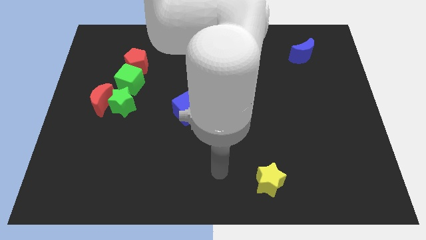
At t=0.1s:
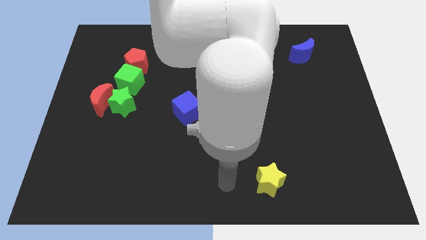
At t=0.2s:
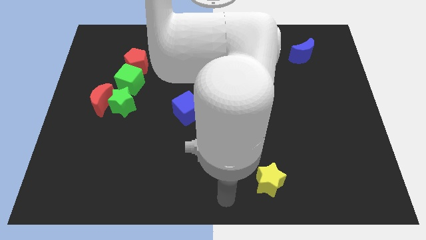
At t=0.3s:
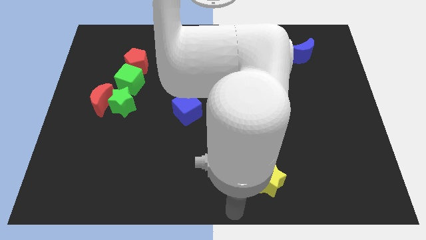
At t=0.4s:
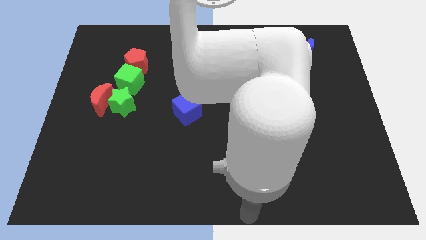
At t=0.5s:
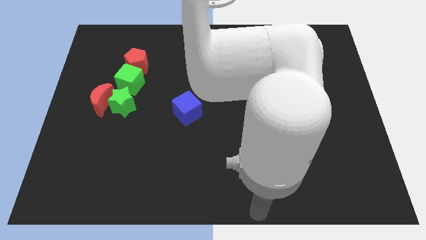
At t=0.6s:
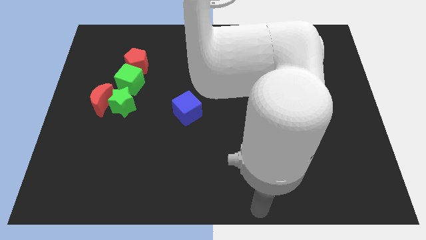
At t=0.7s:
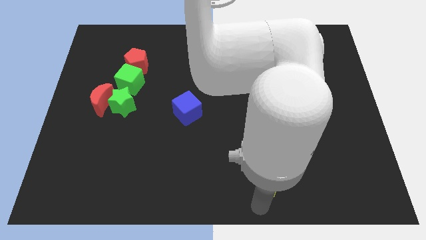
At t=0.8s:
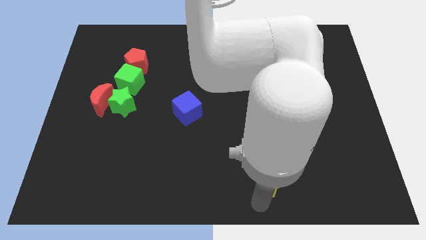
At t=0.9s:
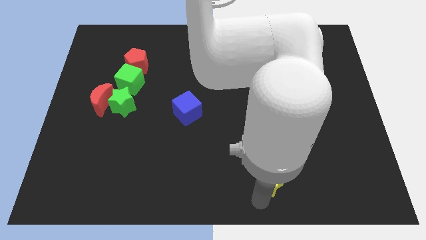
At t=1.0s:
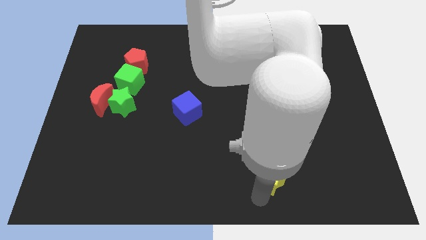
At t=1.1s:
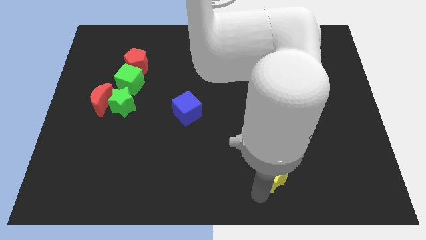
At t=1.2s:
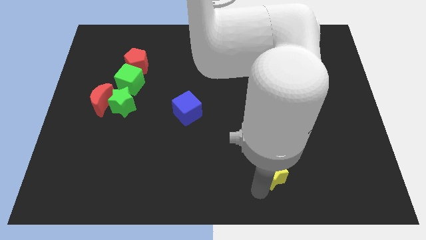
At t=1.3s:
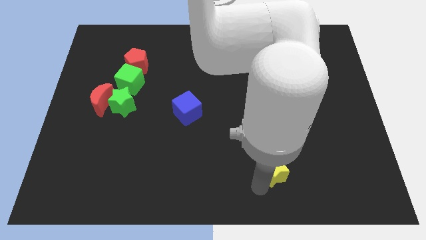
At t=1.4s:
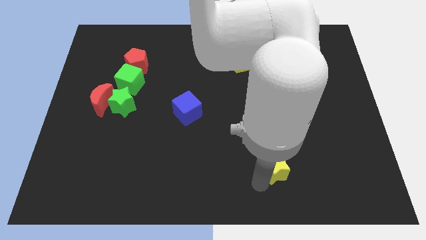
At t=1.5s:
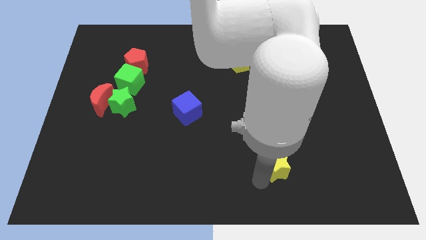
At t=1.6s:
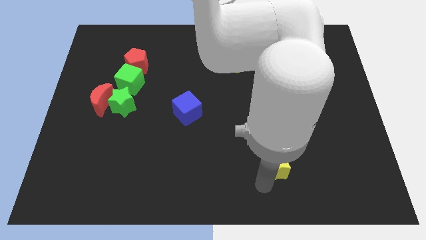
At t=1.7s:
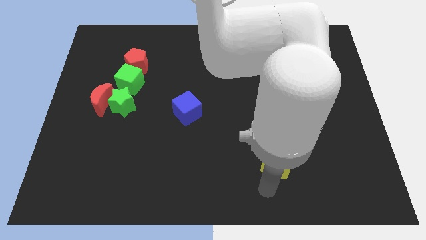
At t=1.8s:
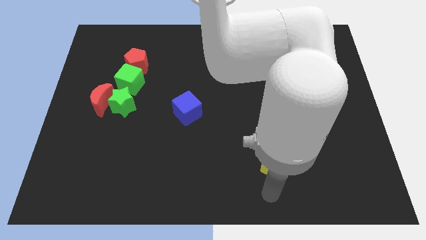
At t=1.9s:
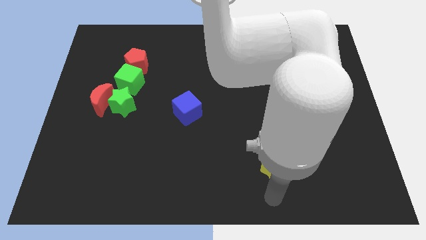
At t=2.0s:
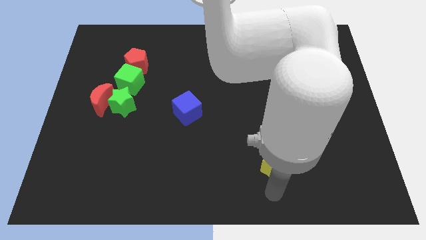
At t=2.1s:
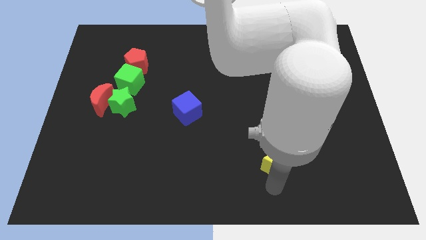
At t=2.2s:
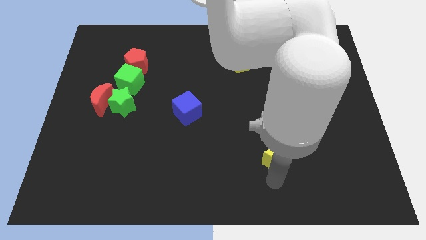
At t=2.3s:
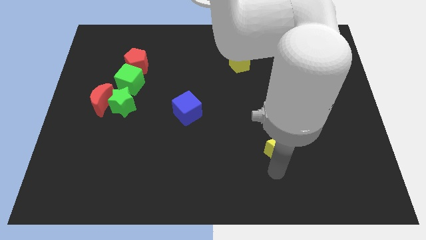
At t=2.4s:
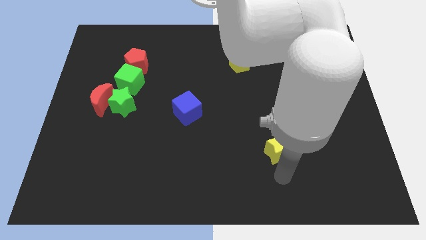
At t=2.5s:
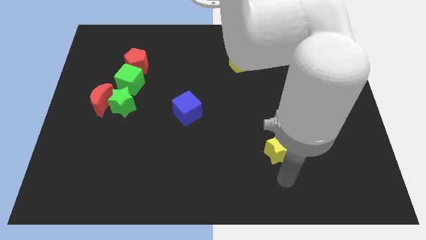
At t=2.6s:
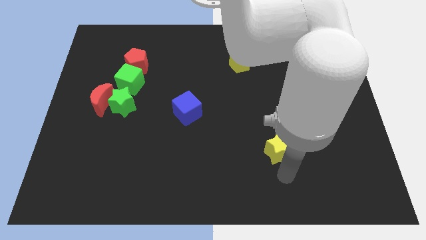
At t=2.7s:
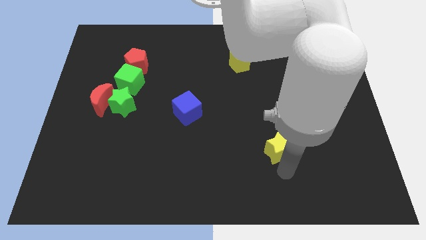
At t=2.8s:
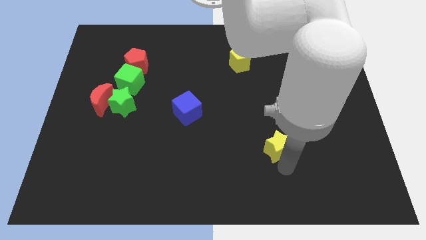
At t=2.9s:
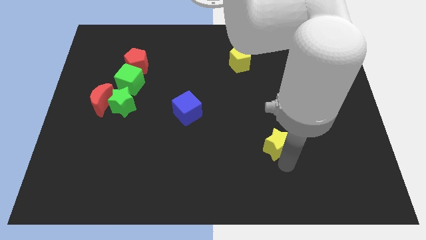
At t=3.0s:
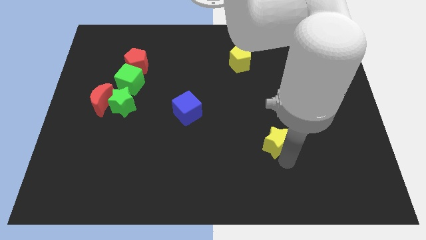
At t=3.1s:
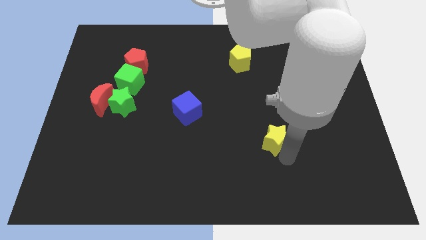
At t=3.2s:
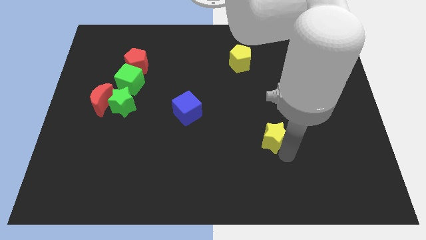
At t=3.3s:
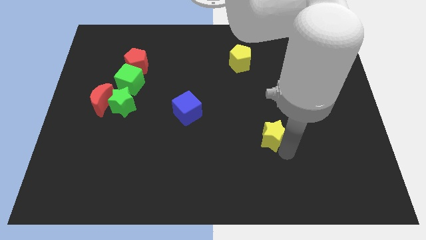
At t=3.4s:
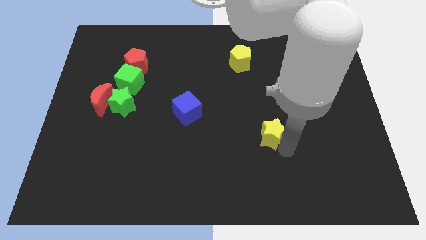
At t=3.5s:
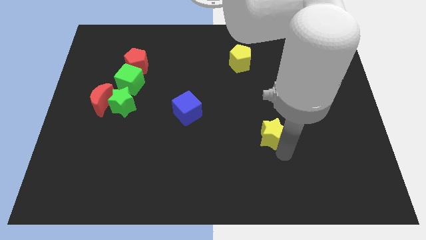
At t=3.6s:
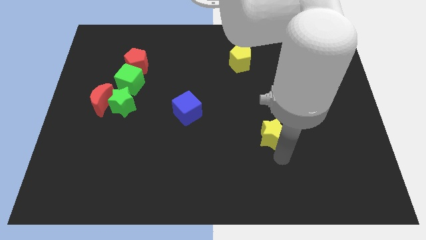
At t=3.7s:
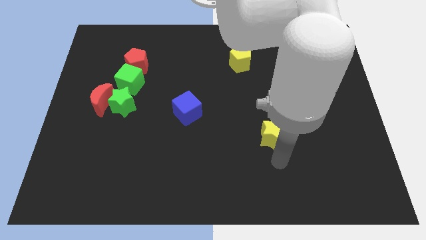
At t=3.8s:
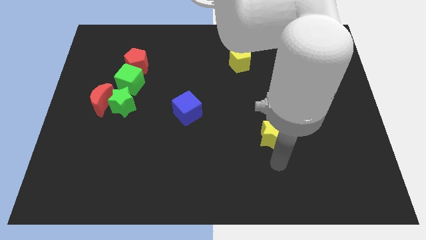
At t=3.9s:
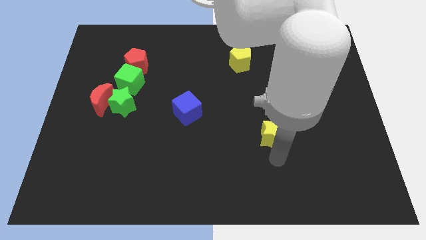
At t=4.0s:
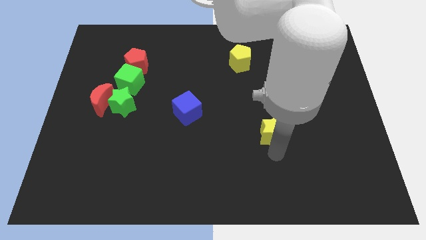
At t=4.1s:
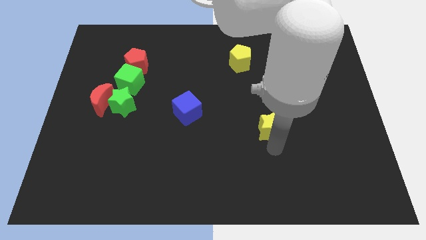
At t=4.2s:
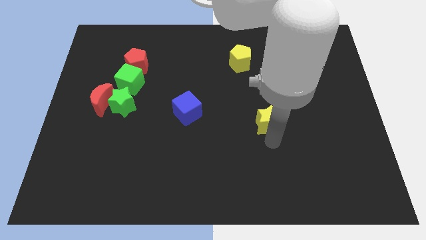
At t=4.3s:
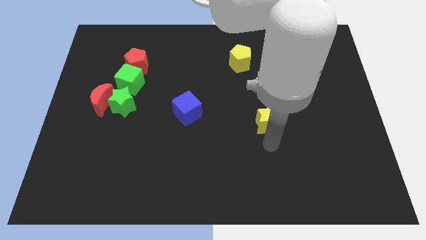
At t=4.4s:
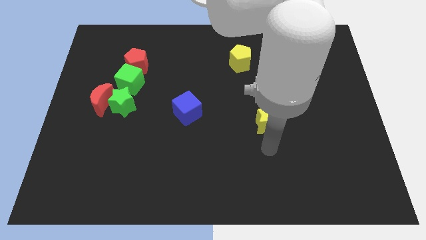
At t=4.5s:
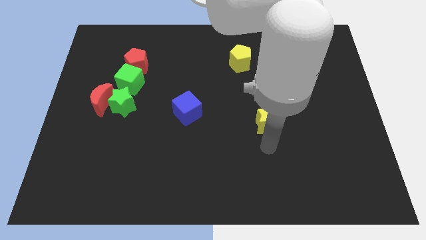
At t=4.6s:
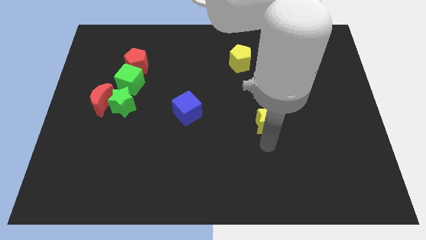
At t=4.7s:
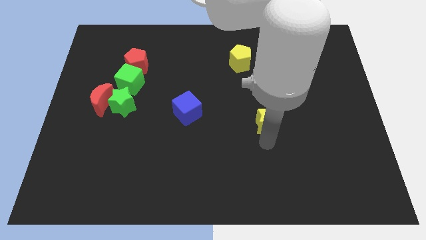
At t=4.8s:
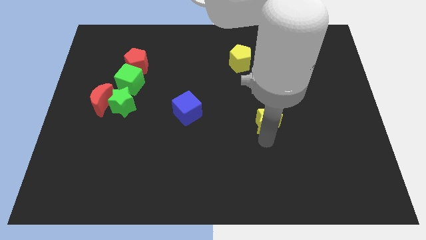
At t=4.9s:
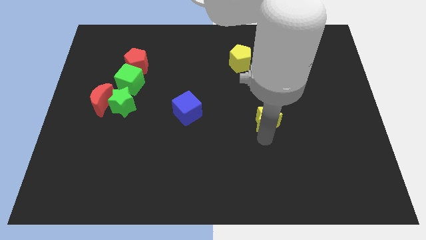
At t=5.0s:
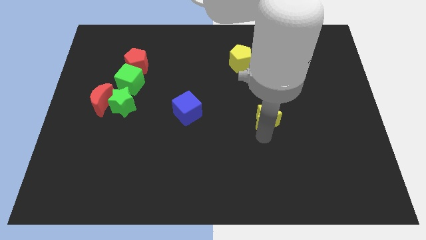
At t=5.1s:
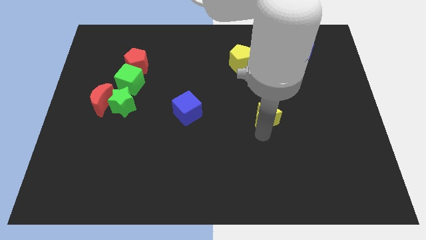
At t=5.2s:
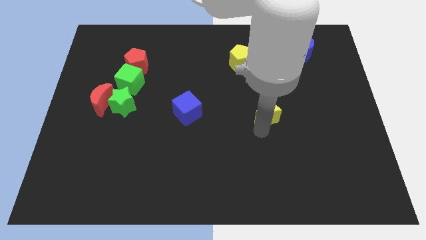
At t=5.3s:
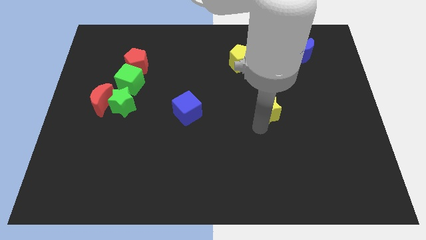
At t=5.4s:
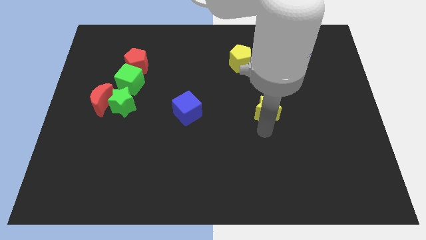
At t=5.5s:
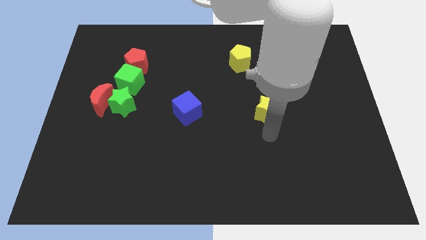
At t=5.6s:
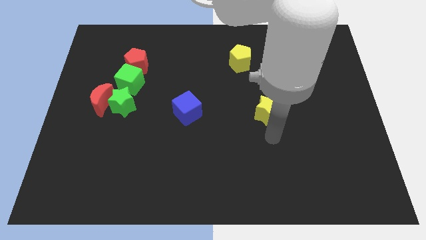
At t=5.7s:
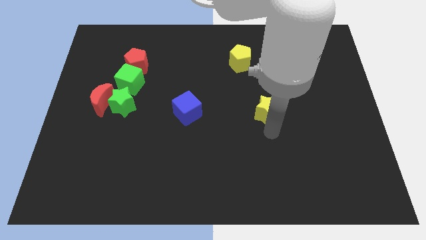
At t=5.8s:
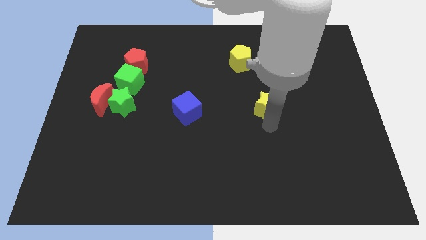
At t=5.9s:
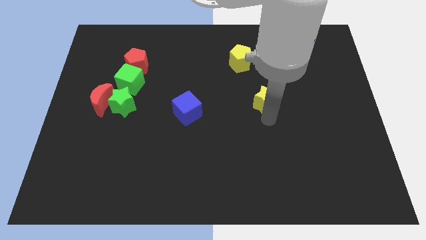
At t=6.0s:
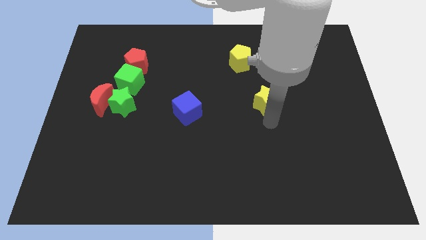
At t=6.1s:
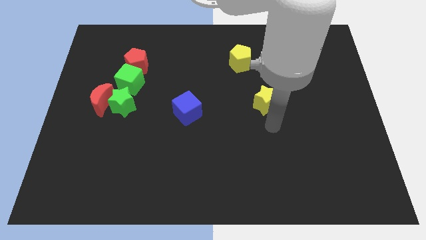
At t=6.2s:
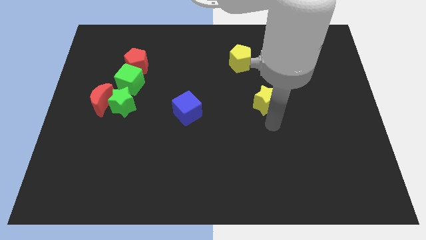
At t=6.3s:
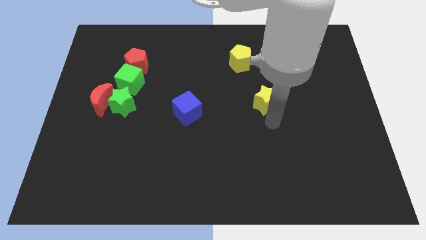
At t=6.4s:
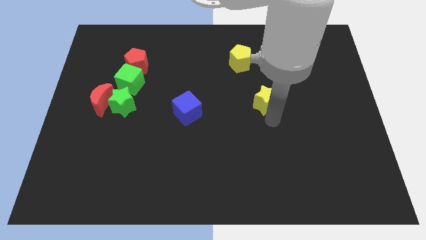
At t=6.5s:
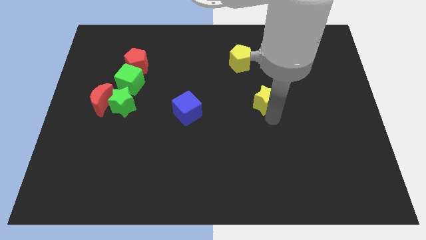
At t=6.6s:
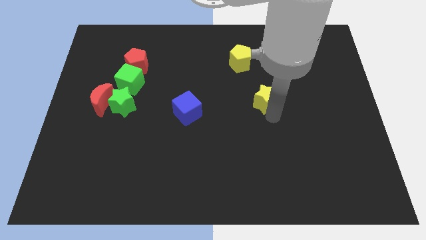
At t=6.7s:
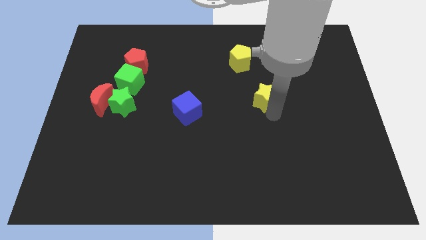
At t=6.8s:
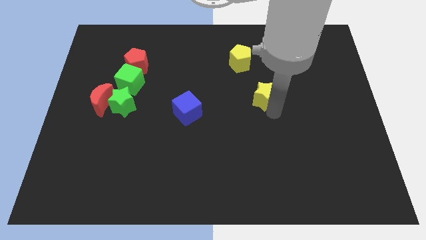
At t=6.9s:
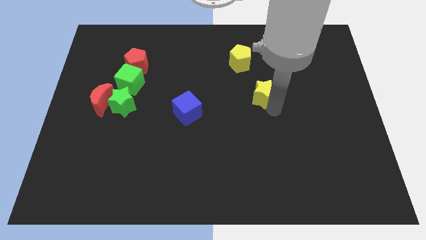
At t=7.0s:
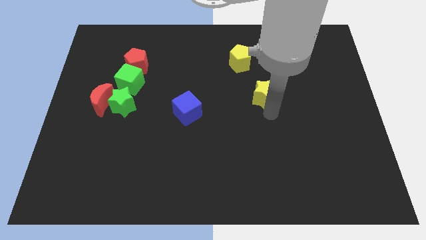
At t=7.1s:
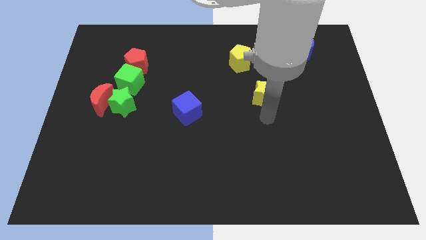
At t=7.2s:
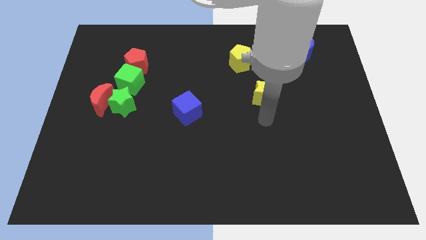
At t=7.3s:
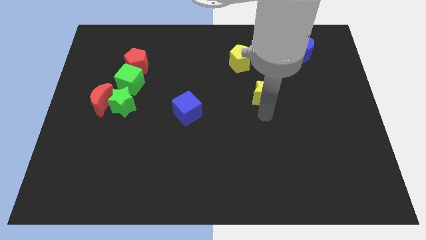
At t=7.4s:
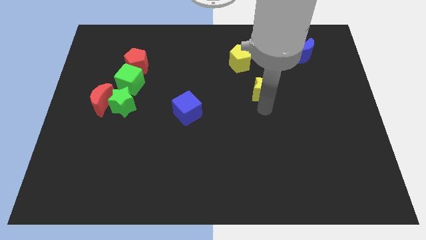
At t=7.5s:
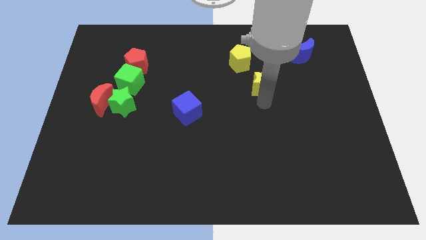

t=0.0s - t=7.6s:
move the yellow star to the bottom right side of the yellow pentagon
